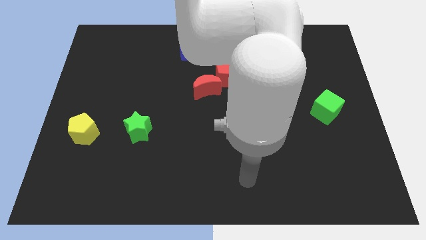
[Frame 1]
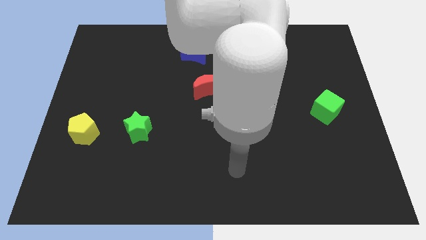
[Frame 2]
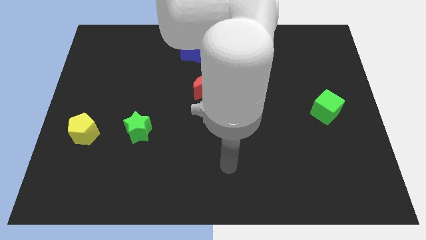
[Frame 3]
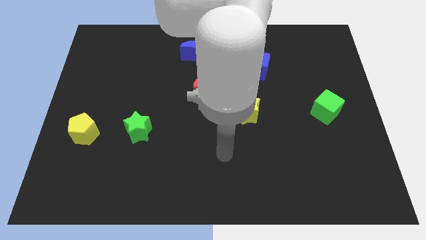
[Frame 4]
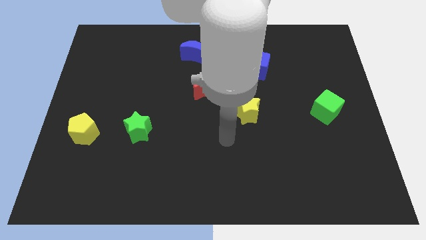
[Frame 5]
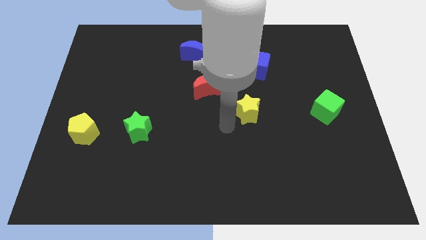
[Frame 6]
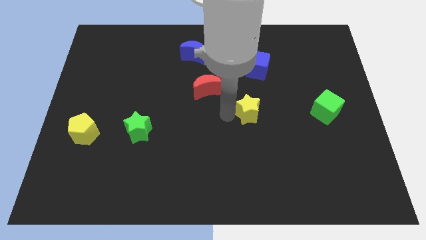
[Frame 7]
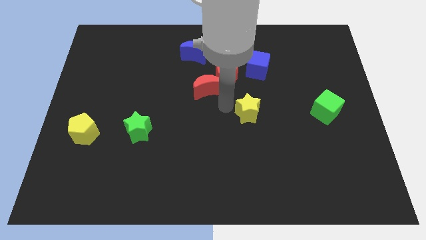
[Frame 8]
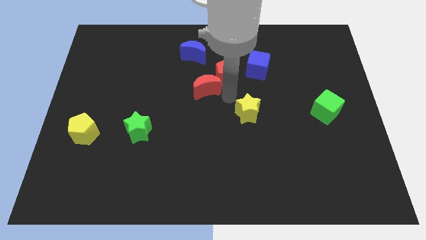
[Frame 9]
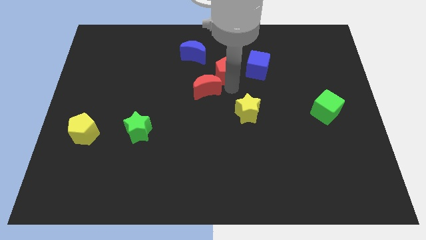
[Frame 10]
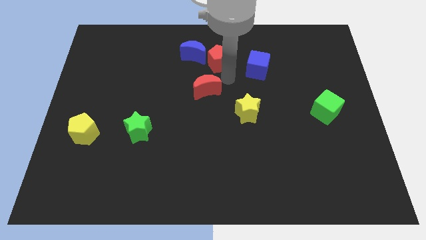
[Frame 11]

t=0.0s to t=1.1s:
separate the red moon from the red pentagon

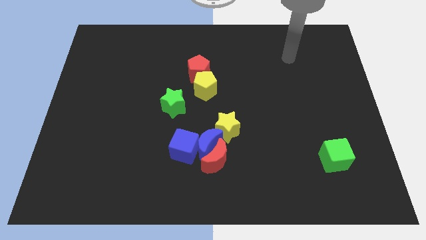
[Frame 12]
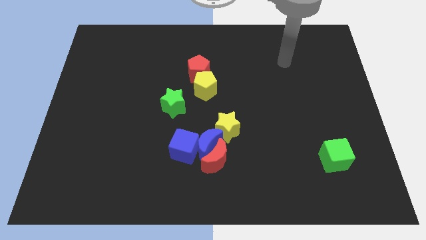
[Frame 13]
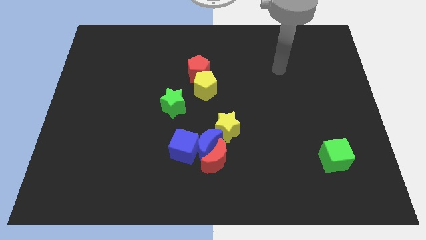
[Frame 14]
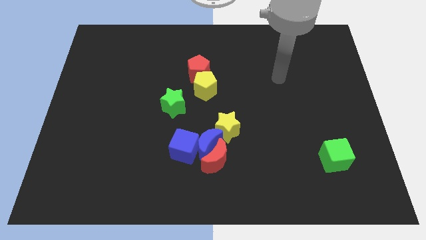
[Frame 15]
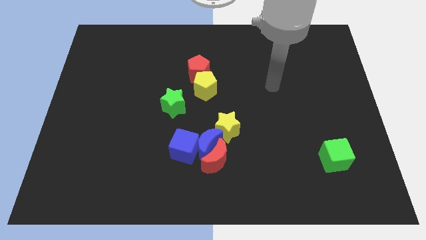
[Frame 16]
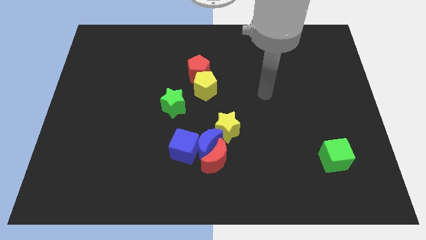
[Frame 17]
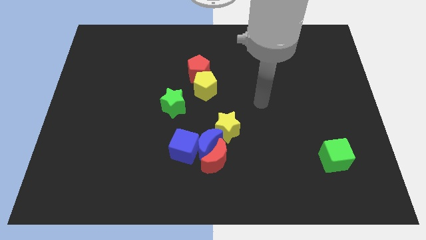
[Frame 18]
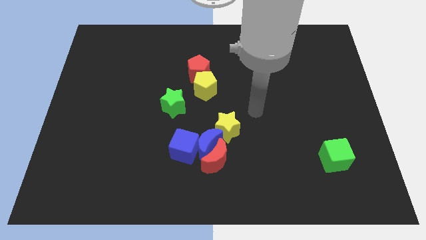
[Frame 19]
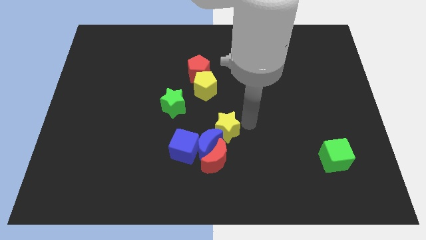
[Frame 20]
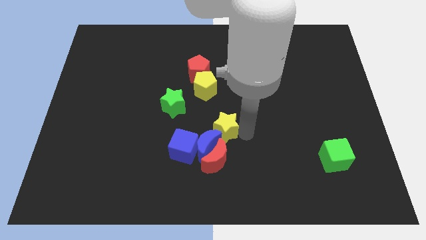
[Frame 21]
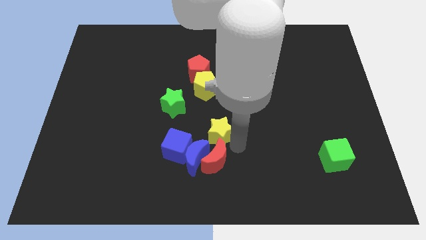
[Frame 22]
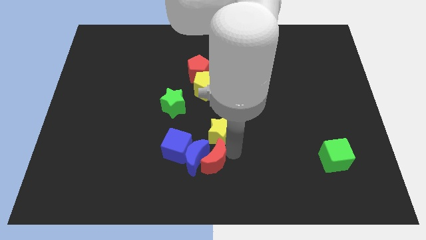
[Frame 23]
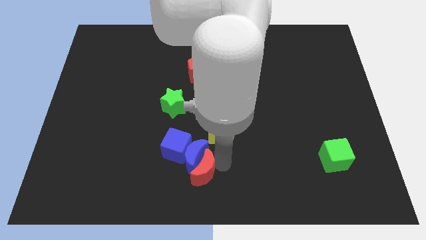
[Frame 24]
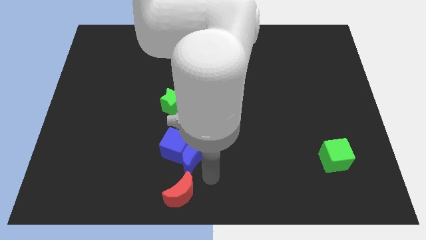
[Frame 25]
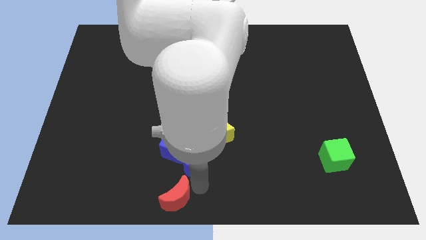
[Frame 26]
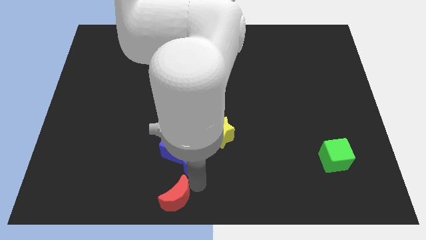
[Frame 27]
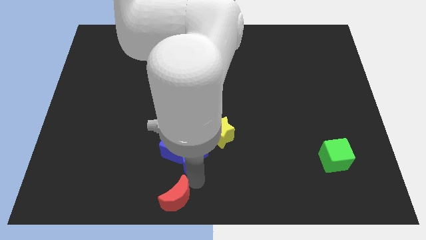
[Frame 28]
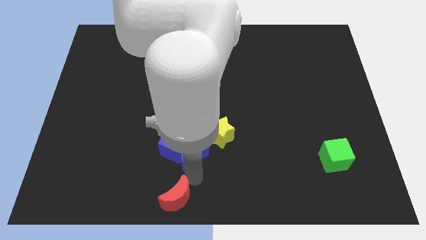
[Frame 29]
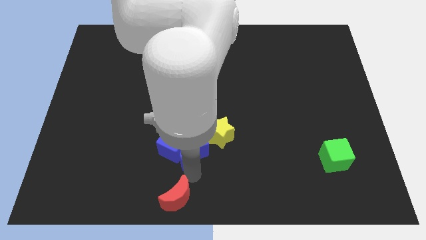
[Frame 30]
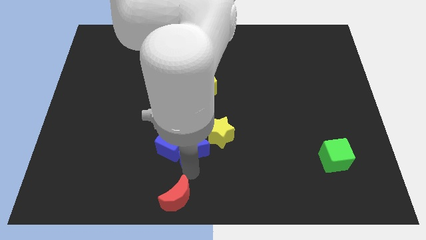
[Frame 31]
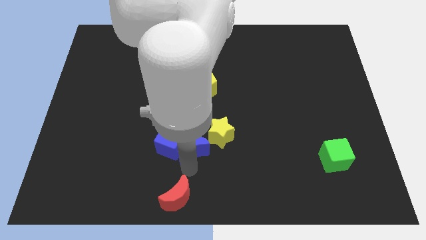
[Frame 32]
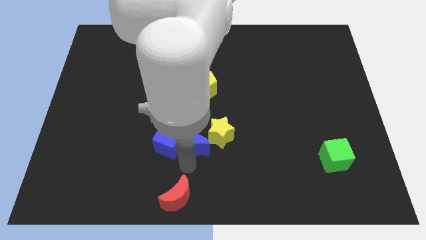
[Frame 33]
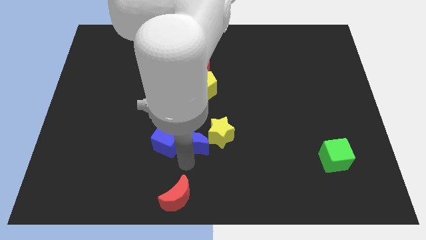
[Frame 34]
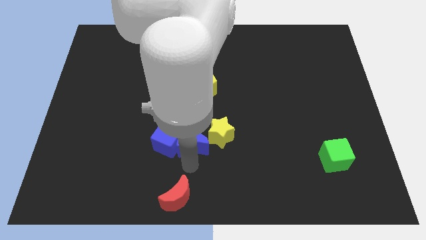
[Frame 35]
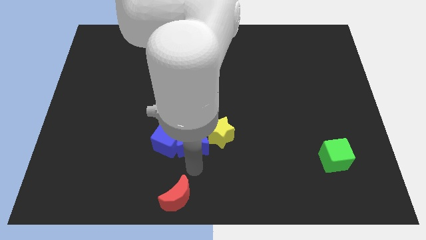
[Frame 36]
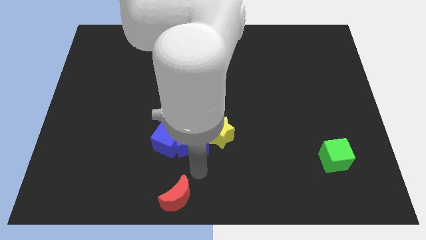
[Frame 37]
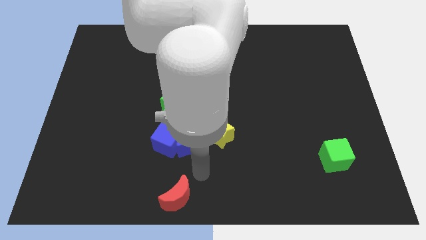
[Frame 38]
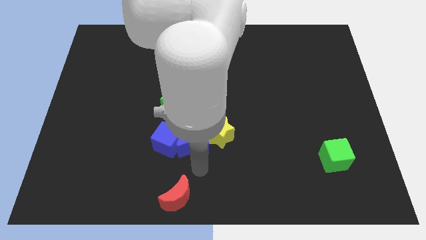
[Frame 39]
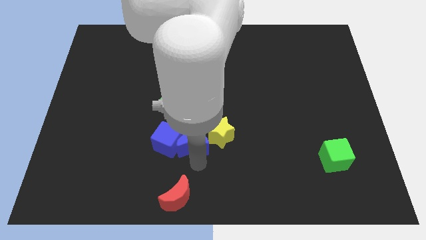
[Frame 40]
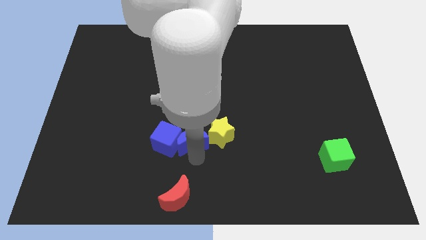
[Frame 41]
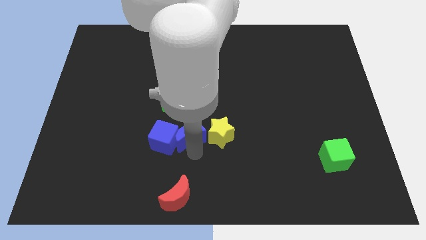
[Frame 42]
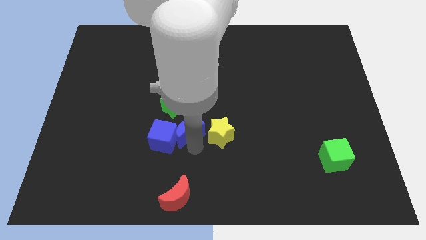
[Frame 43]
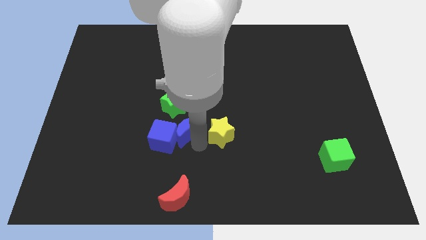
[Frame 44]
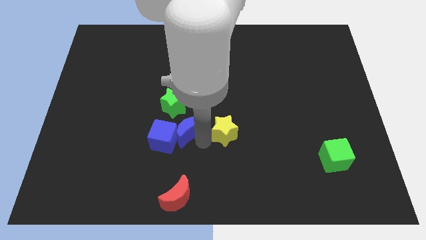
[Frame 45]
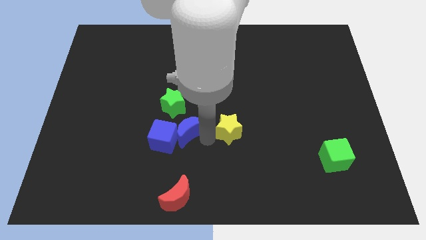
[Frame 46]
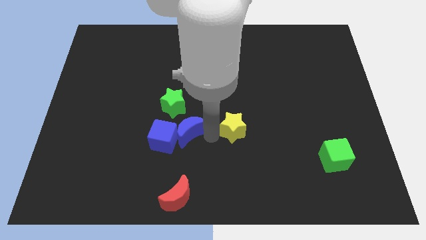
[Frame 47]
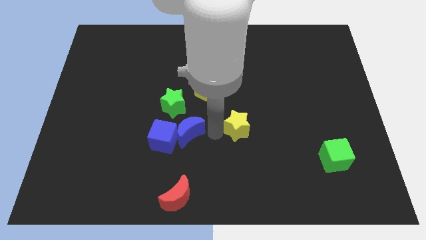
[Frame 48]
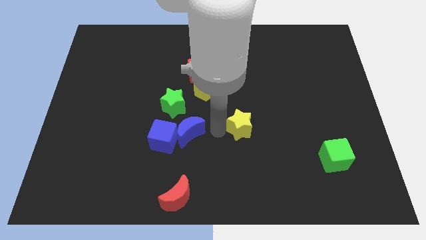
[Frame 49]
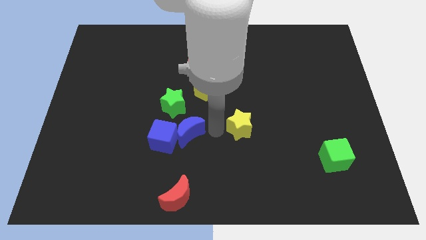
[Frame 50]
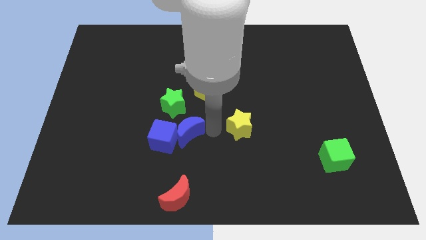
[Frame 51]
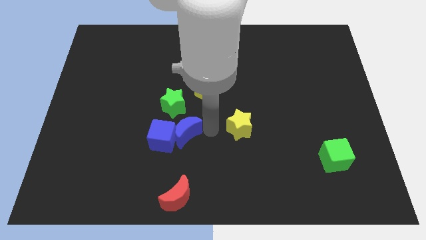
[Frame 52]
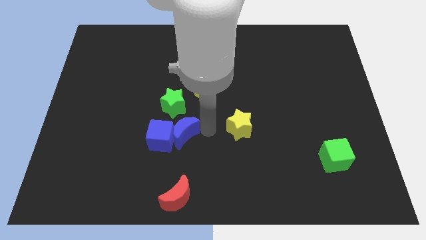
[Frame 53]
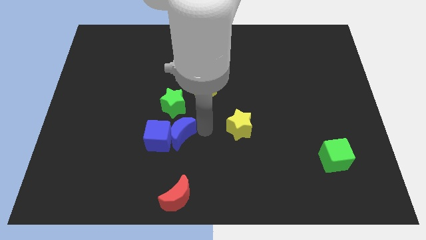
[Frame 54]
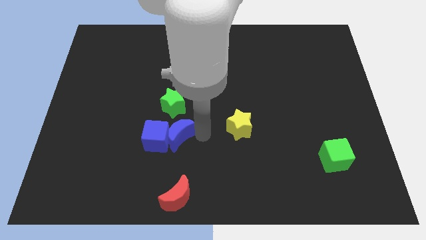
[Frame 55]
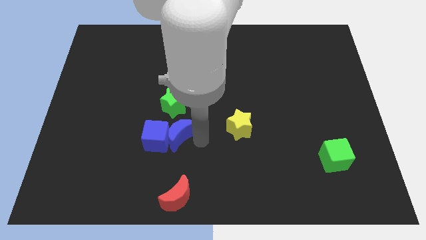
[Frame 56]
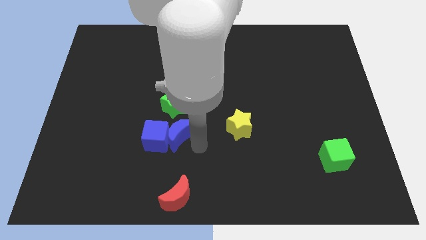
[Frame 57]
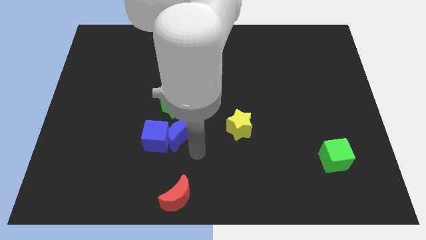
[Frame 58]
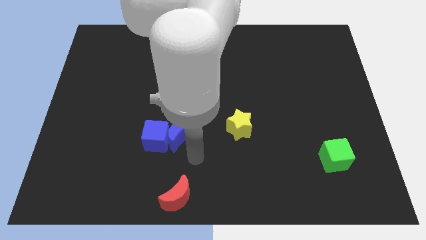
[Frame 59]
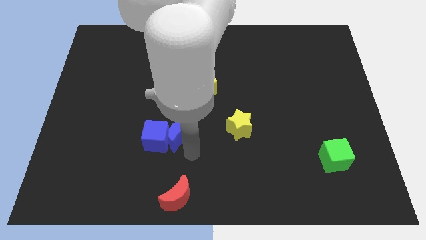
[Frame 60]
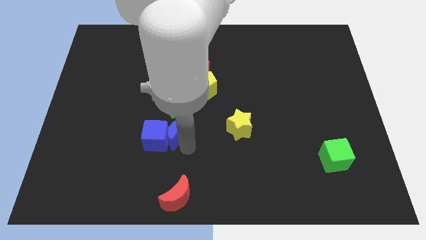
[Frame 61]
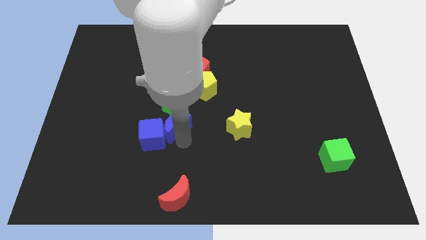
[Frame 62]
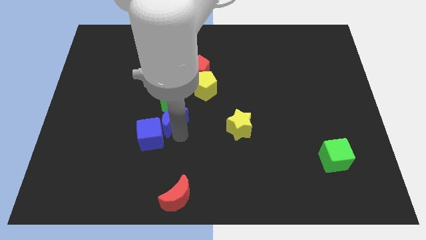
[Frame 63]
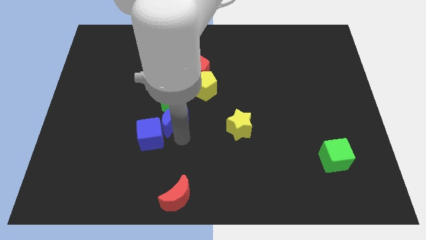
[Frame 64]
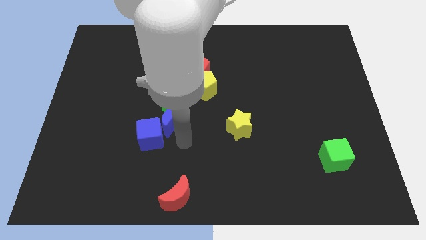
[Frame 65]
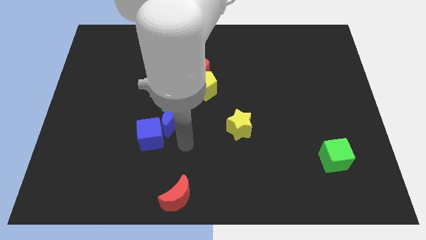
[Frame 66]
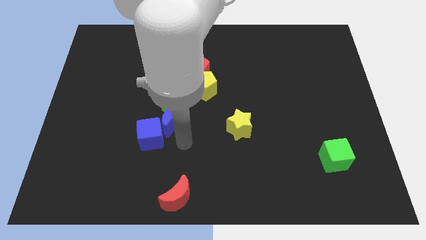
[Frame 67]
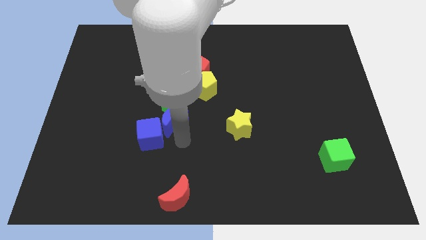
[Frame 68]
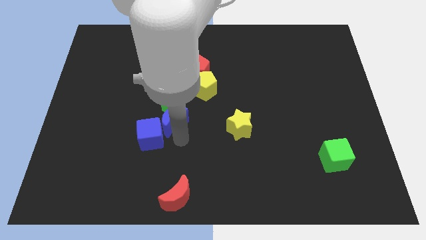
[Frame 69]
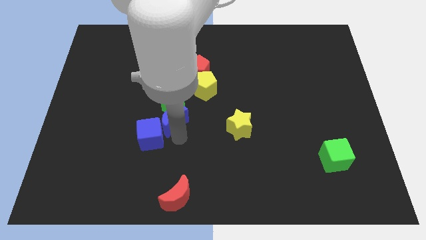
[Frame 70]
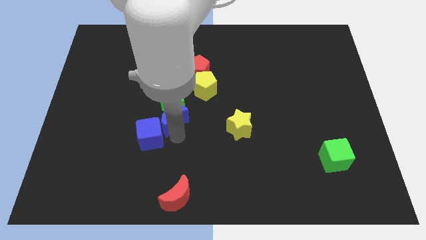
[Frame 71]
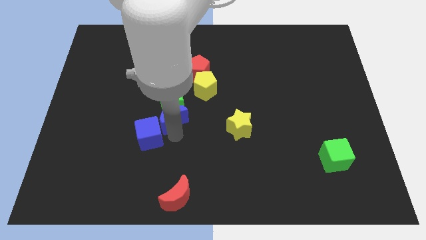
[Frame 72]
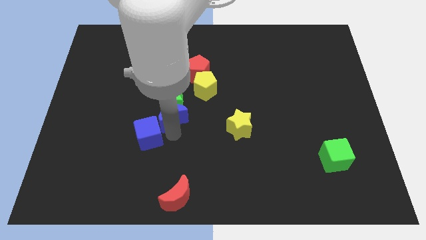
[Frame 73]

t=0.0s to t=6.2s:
pull the blue moon apart from the group of blocks

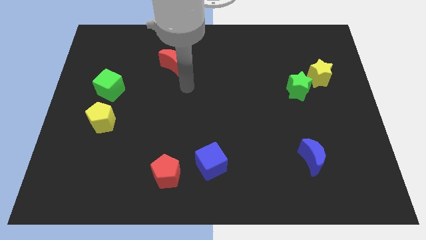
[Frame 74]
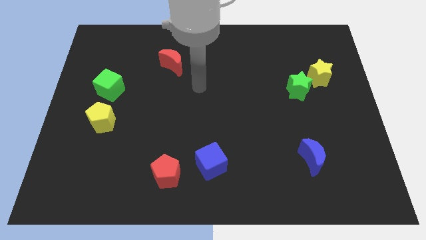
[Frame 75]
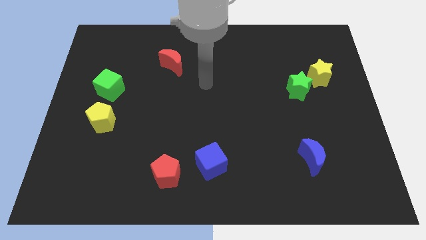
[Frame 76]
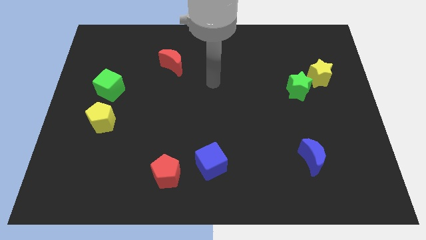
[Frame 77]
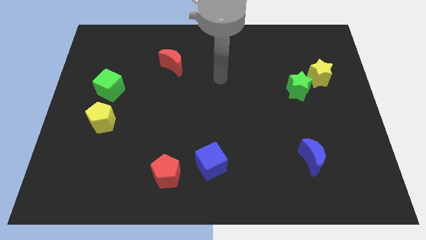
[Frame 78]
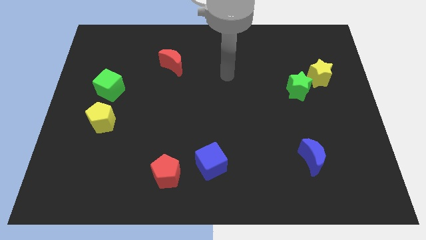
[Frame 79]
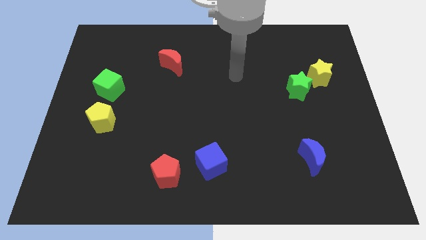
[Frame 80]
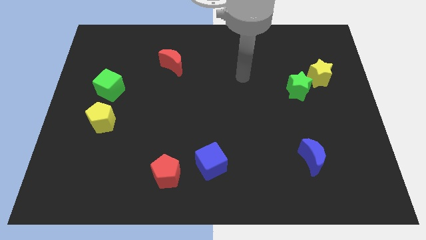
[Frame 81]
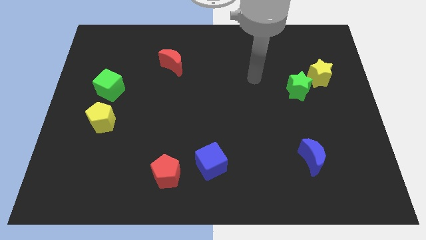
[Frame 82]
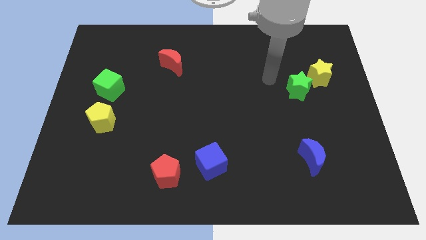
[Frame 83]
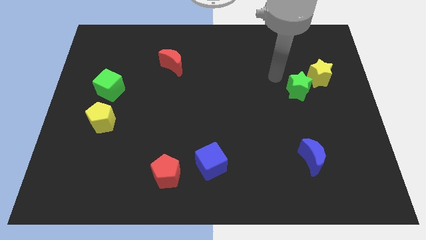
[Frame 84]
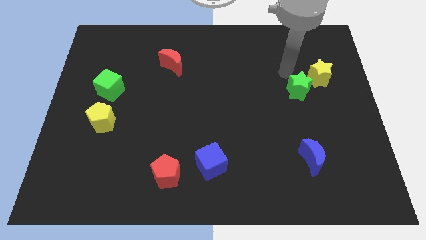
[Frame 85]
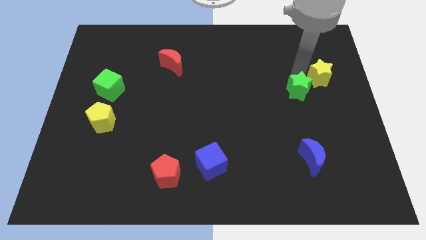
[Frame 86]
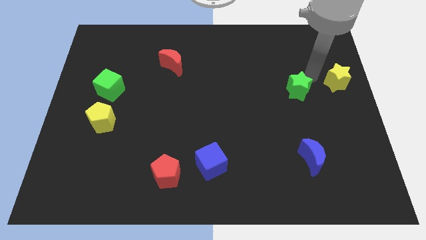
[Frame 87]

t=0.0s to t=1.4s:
pull the green star apart from the yellow star

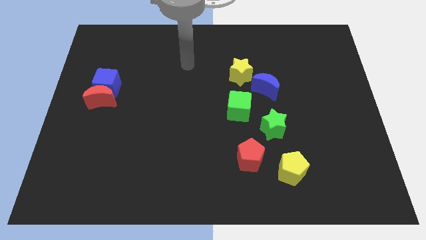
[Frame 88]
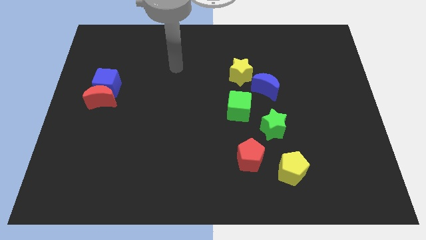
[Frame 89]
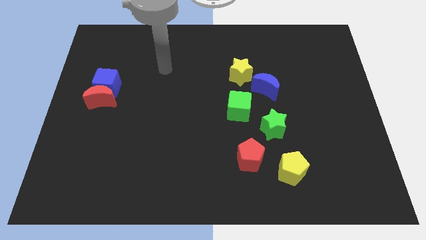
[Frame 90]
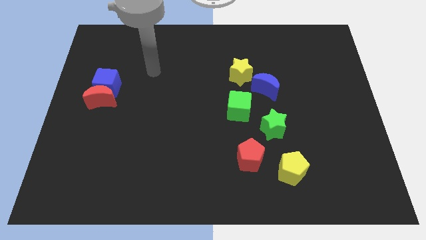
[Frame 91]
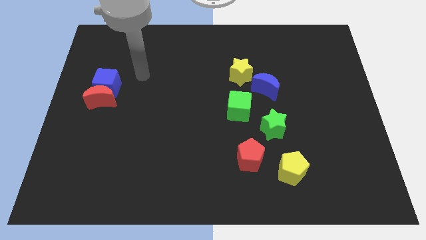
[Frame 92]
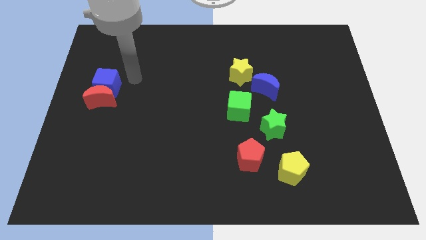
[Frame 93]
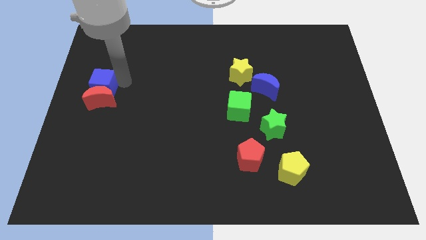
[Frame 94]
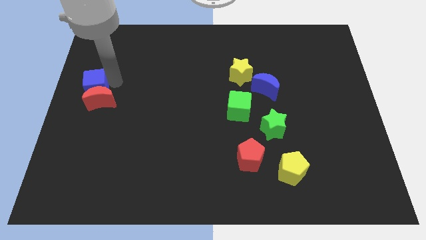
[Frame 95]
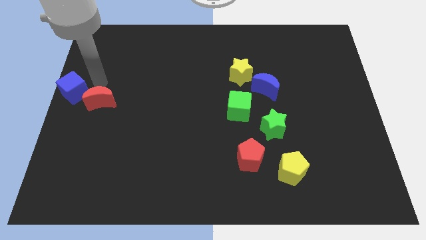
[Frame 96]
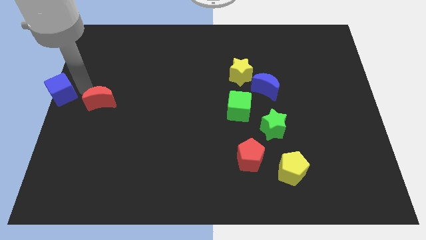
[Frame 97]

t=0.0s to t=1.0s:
separate the red moon from the blue cube
